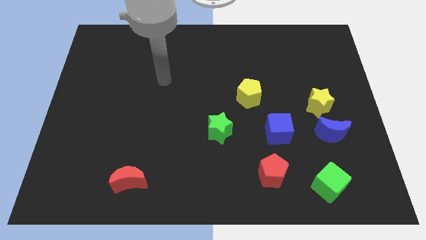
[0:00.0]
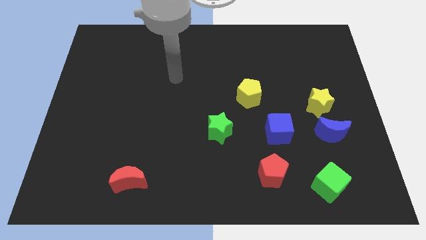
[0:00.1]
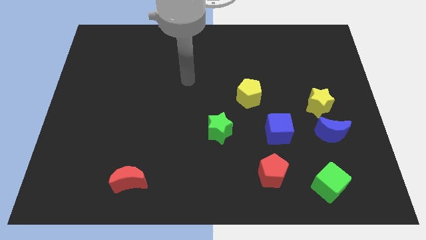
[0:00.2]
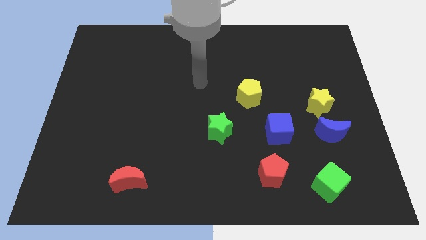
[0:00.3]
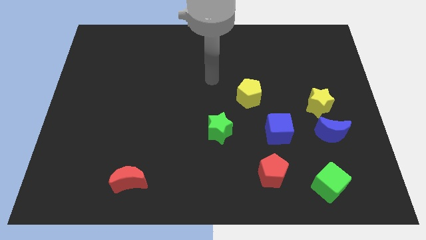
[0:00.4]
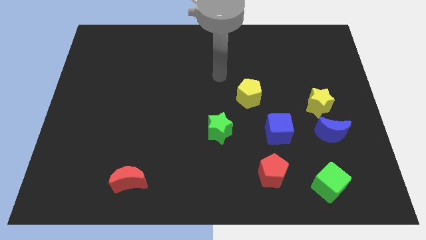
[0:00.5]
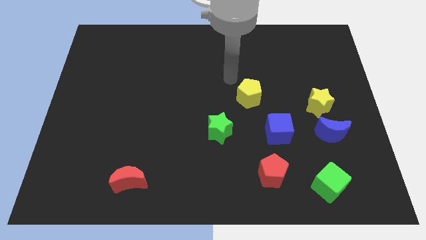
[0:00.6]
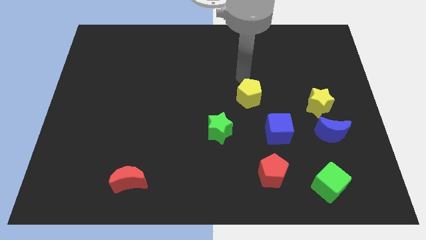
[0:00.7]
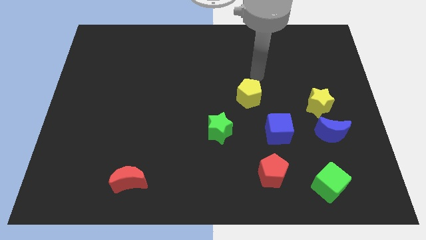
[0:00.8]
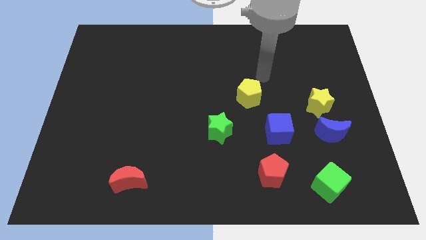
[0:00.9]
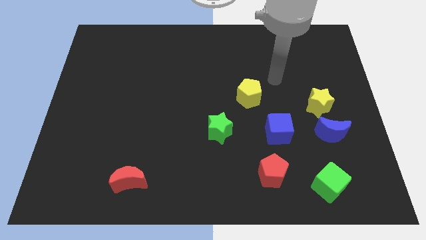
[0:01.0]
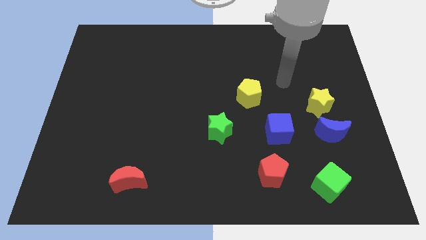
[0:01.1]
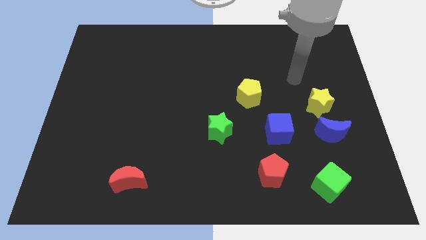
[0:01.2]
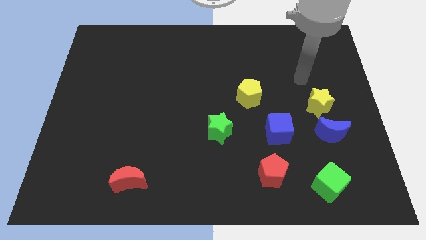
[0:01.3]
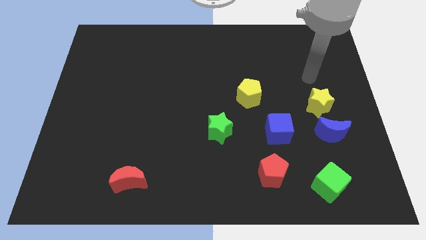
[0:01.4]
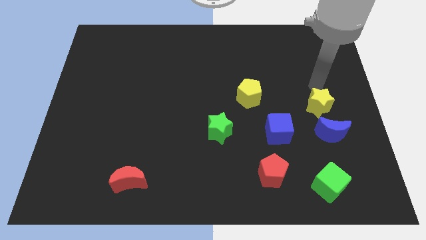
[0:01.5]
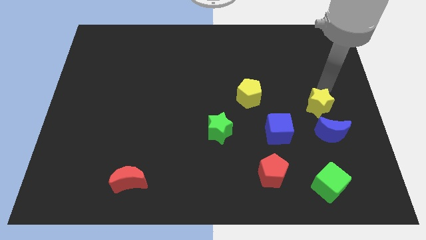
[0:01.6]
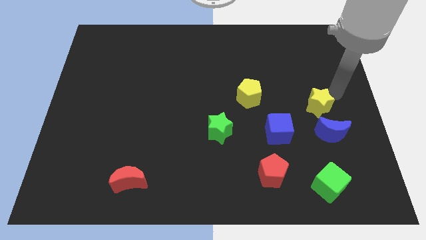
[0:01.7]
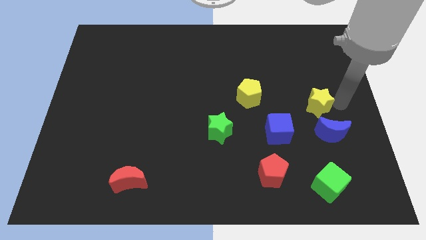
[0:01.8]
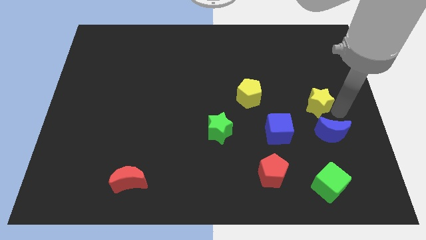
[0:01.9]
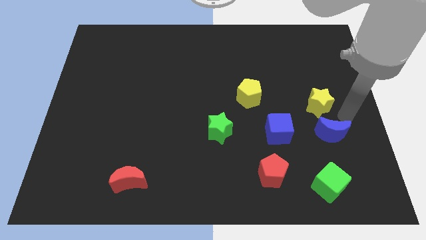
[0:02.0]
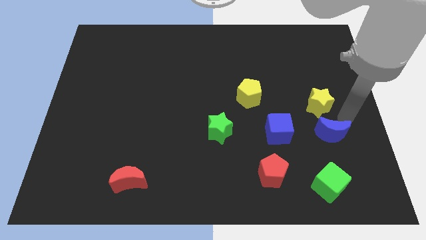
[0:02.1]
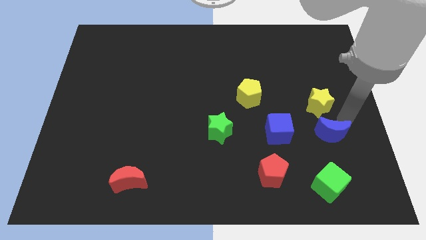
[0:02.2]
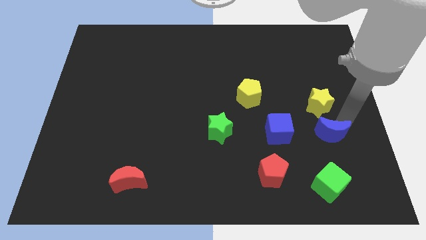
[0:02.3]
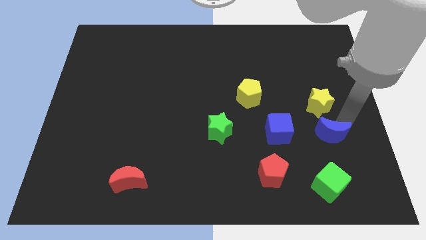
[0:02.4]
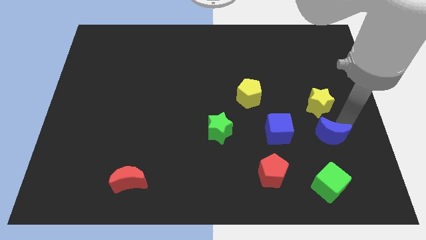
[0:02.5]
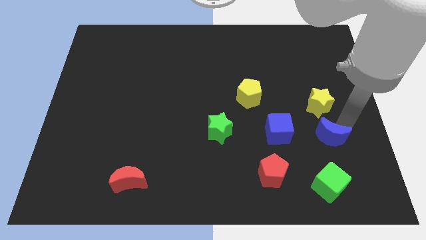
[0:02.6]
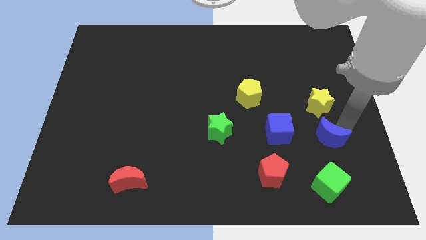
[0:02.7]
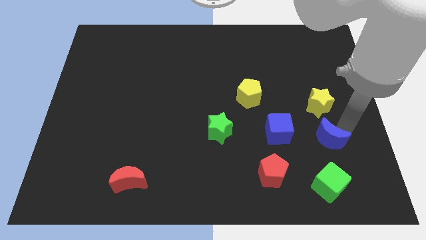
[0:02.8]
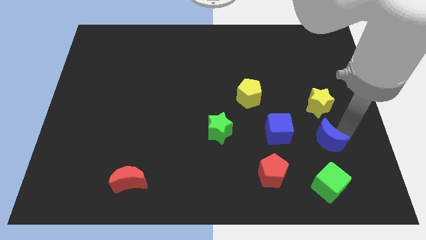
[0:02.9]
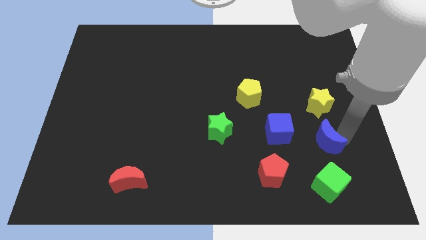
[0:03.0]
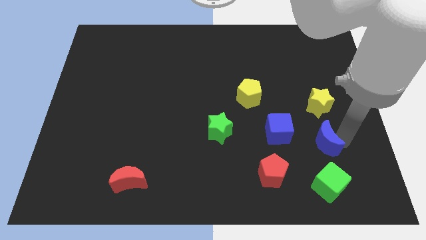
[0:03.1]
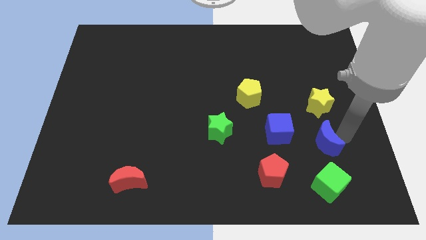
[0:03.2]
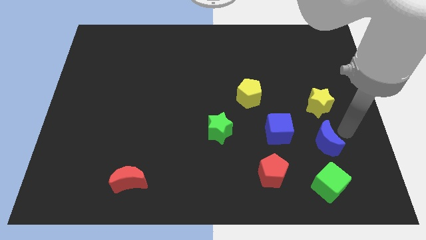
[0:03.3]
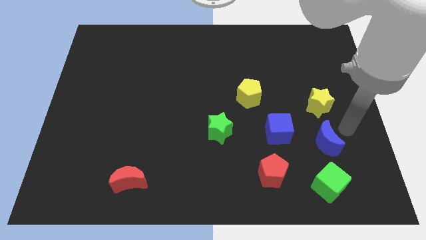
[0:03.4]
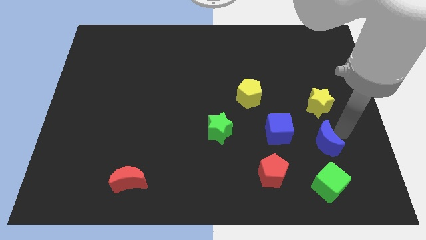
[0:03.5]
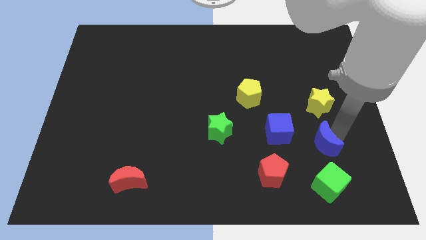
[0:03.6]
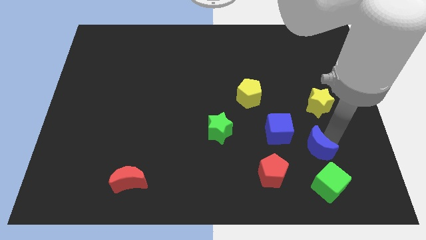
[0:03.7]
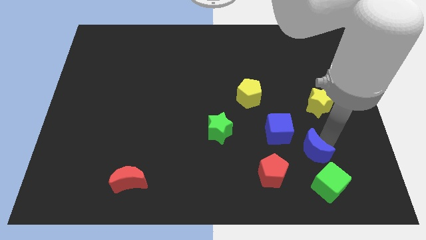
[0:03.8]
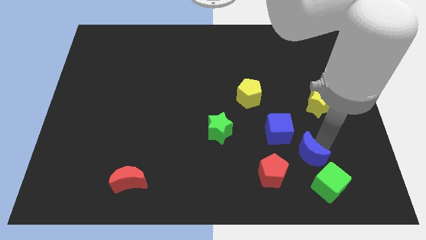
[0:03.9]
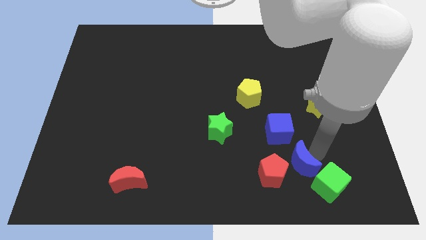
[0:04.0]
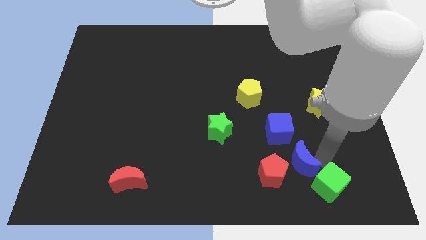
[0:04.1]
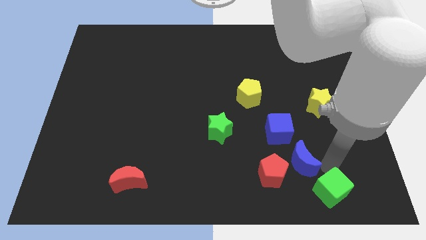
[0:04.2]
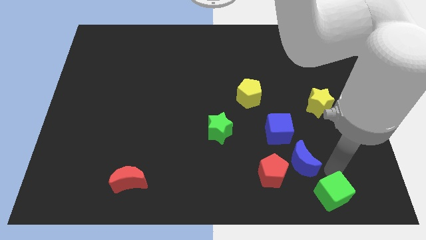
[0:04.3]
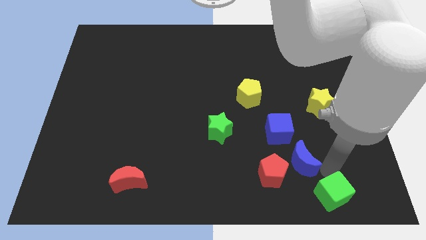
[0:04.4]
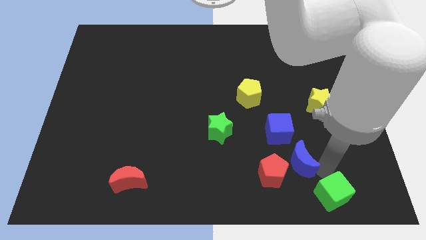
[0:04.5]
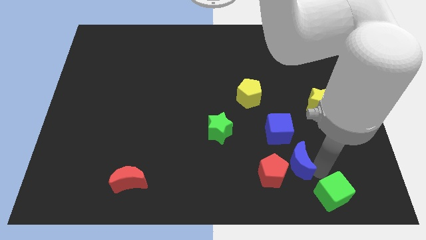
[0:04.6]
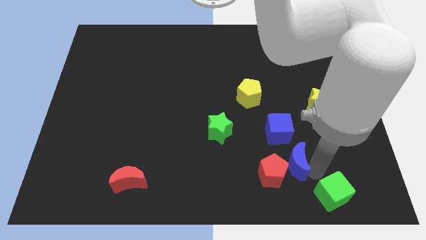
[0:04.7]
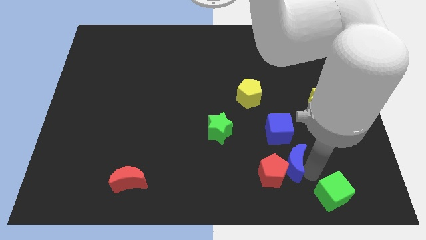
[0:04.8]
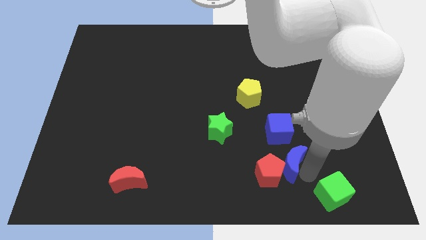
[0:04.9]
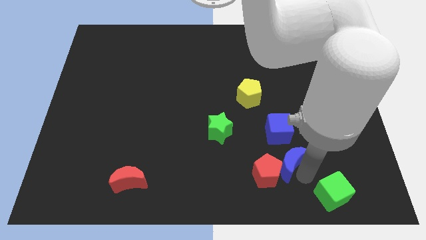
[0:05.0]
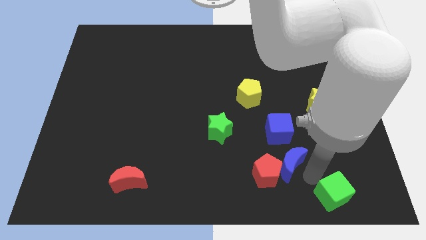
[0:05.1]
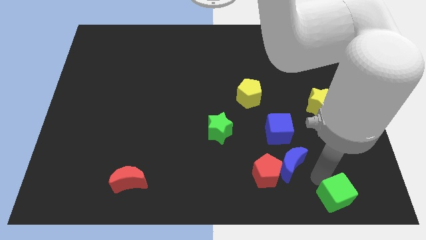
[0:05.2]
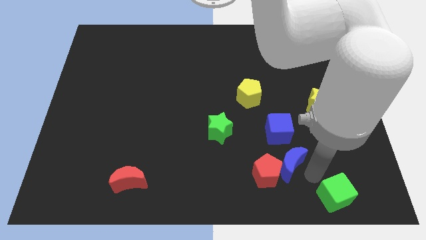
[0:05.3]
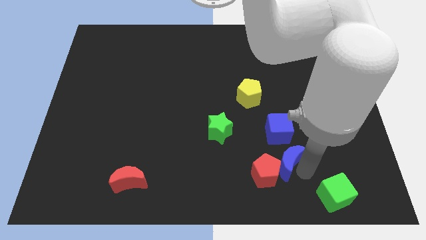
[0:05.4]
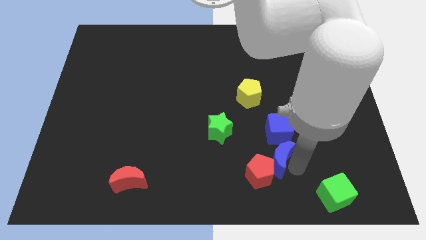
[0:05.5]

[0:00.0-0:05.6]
slide the blue moon to the bottom left of the blue cube
